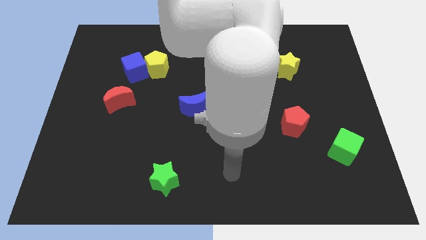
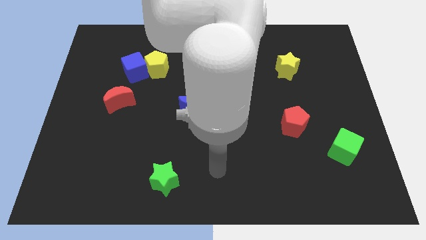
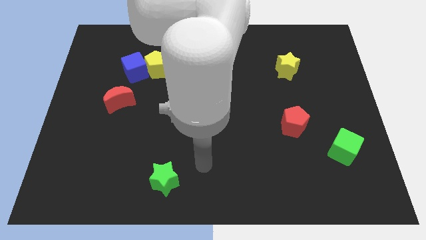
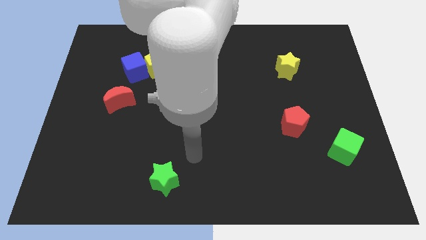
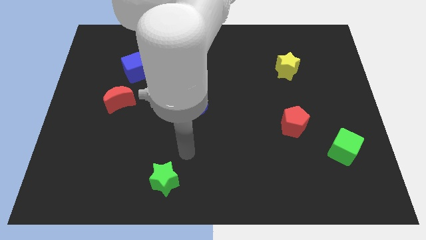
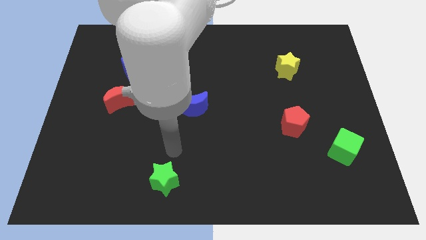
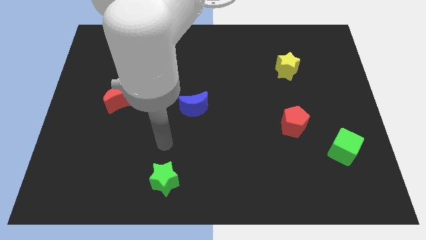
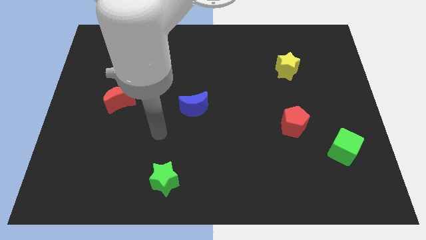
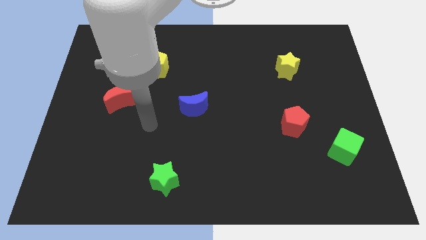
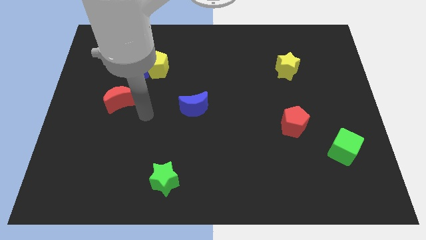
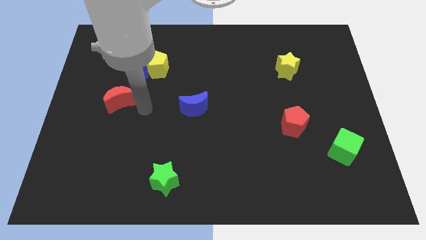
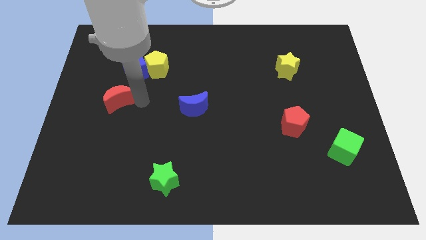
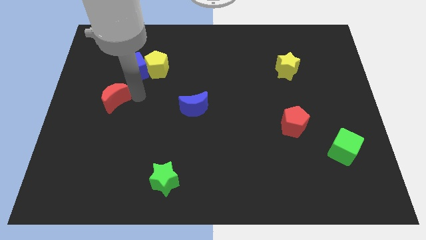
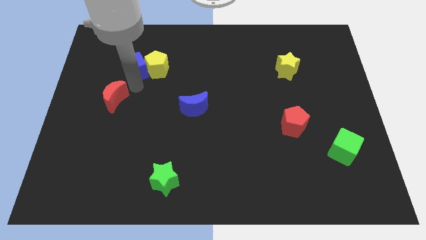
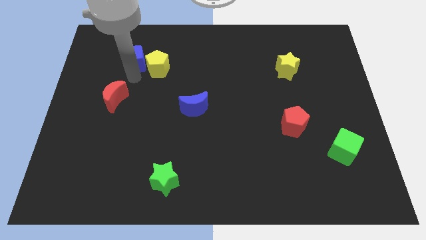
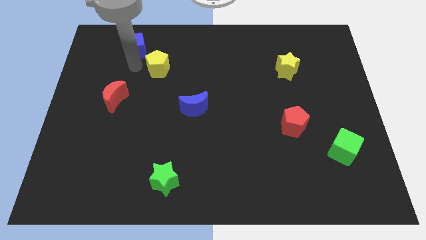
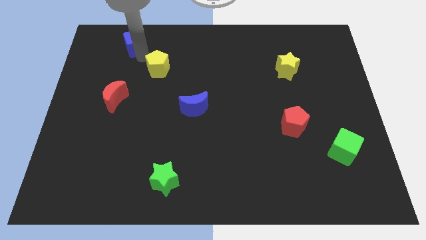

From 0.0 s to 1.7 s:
move the yellow pentagon away from the blue cube

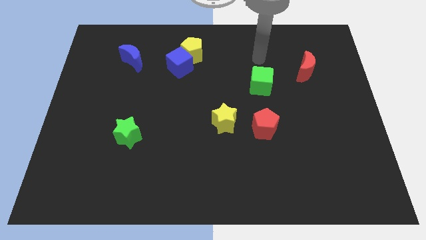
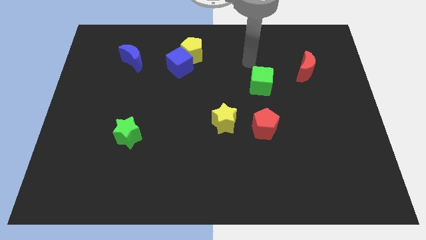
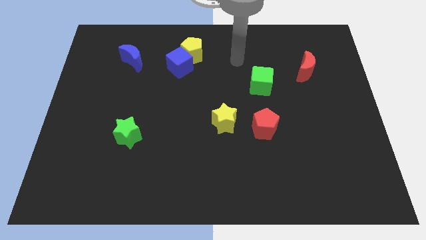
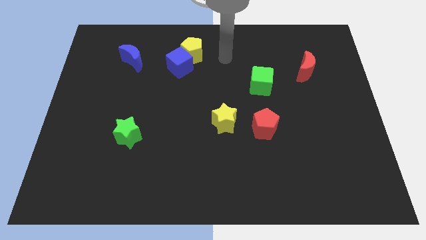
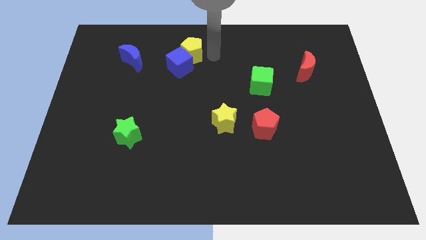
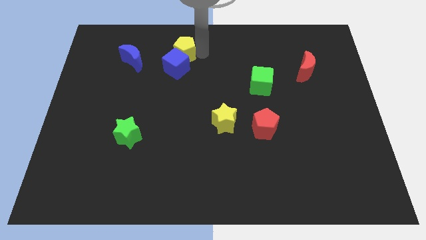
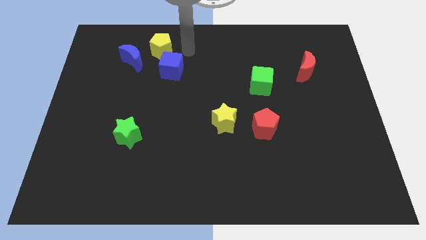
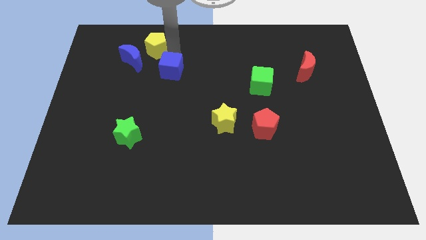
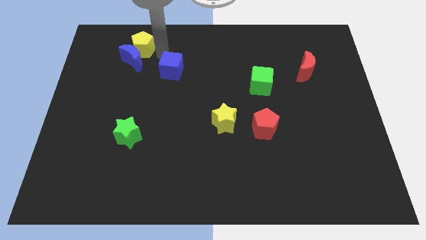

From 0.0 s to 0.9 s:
move the blue cube away from the yellow pentagon

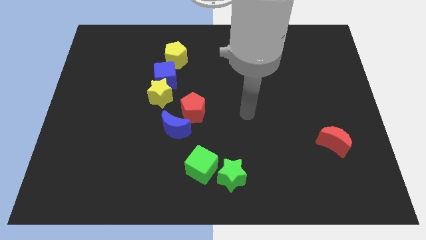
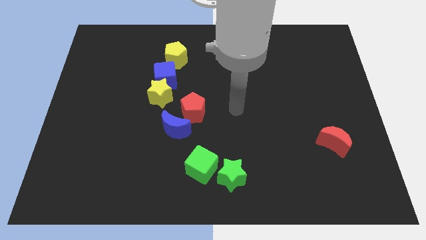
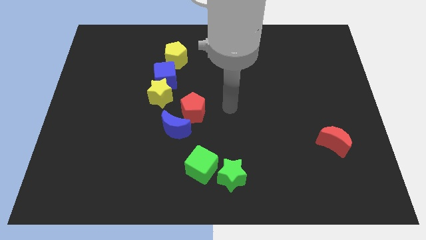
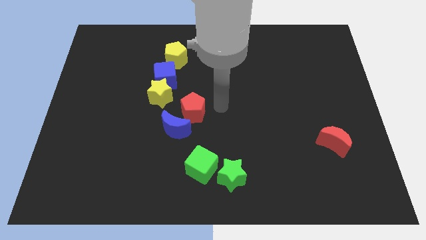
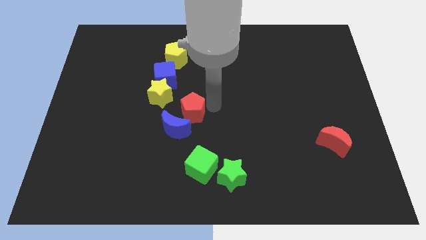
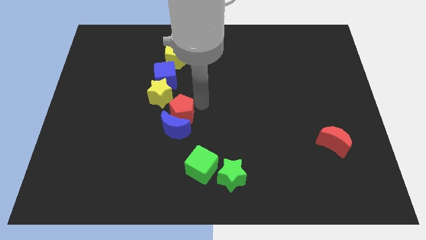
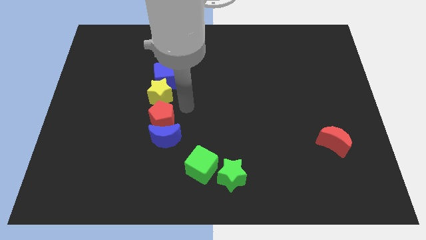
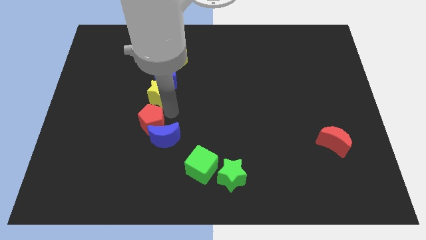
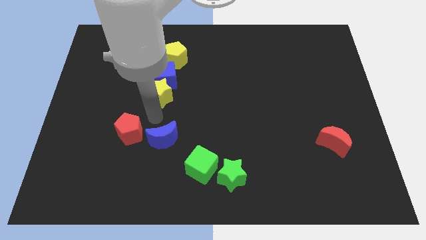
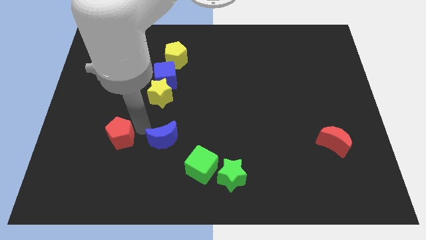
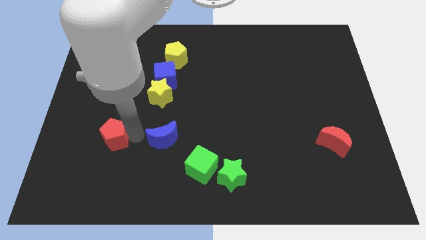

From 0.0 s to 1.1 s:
move the blue moon away from the red pentagon

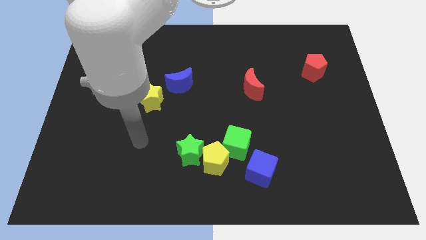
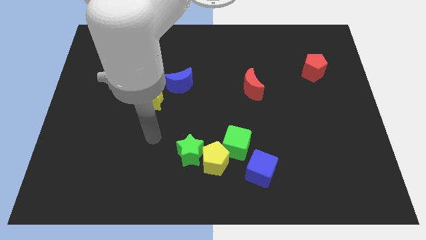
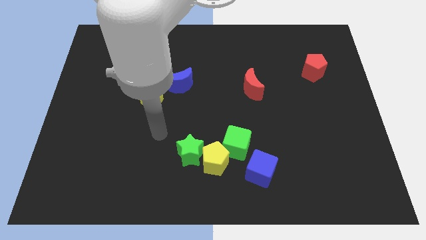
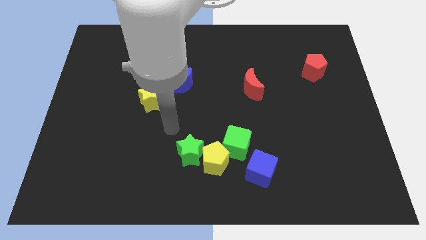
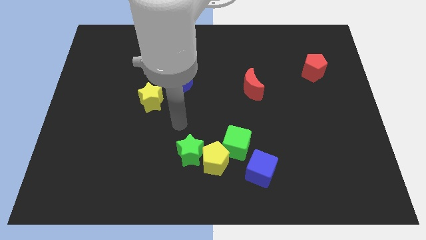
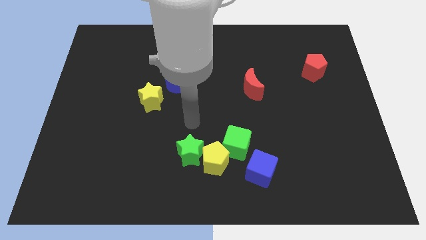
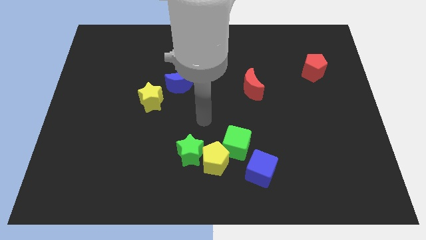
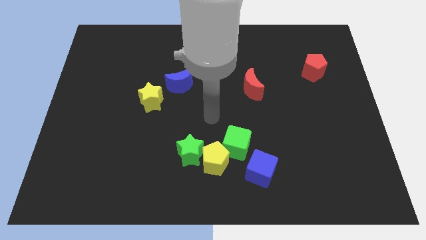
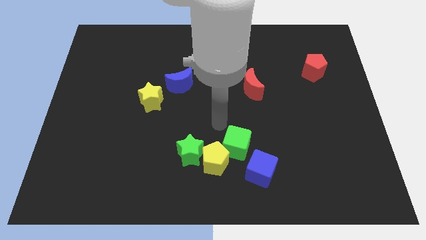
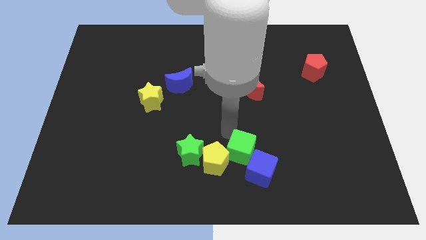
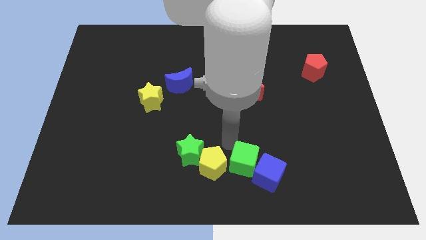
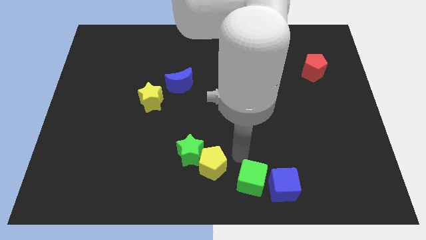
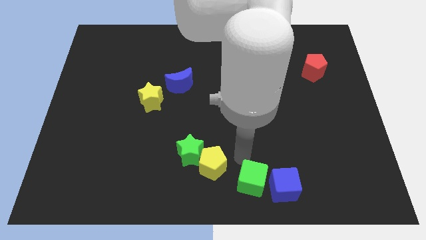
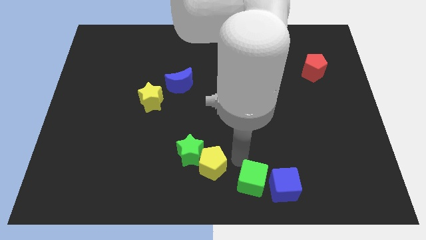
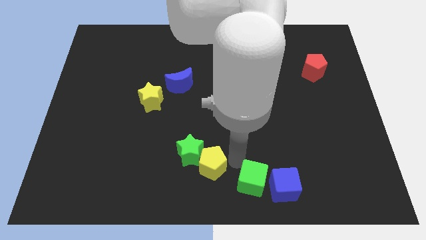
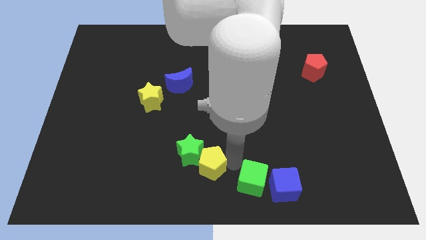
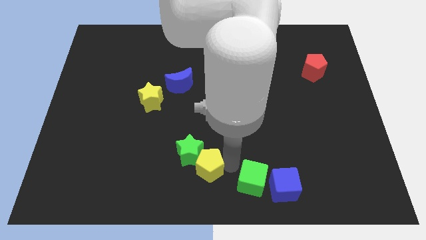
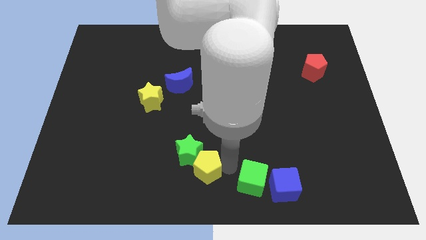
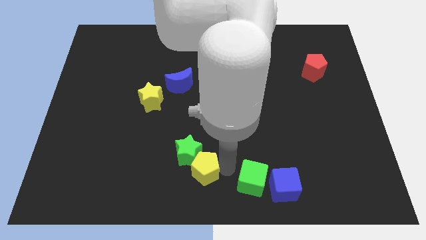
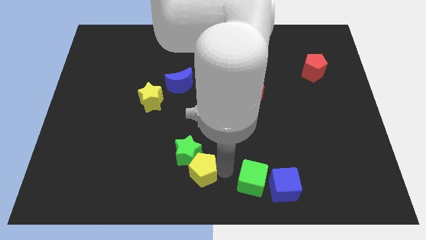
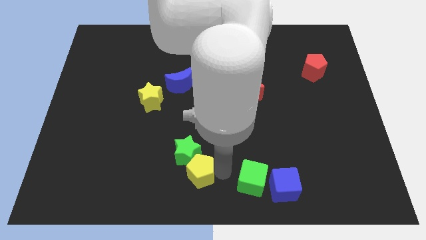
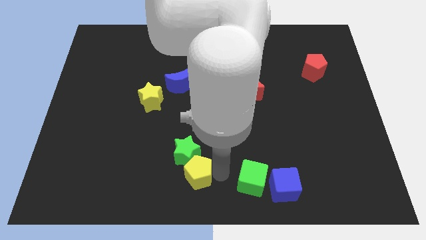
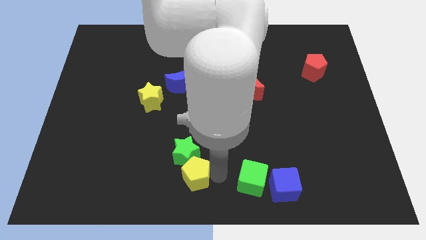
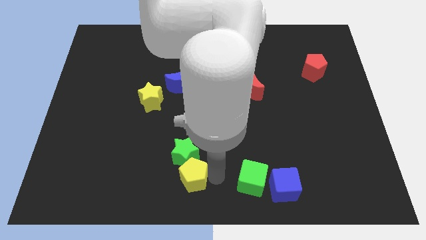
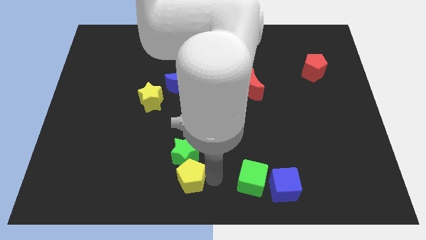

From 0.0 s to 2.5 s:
separate the yellow pentagon from the green star, green cube, and blue cube

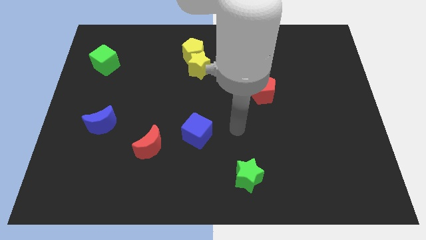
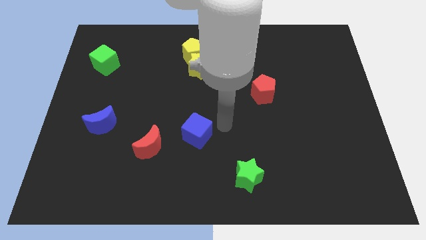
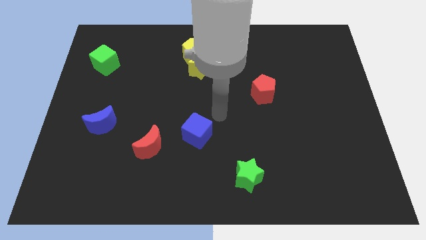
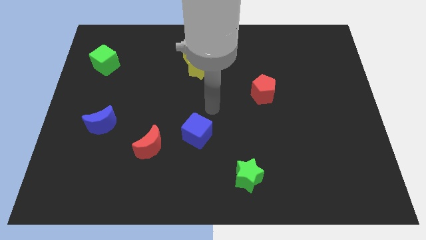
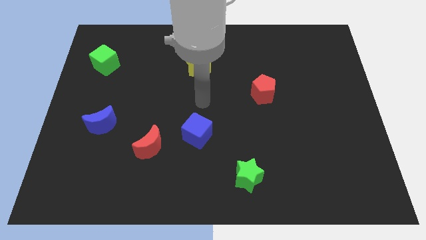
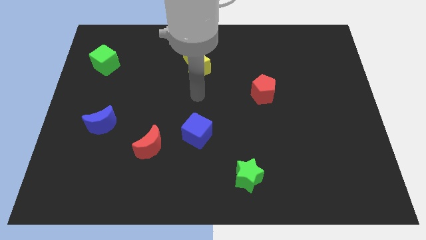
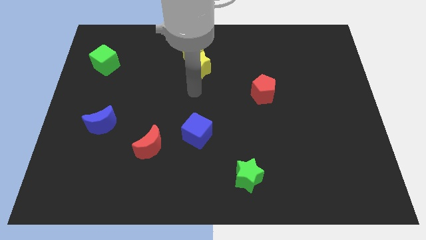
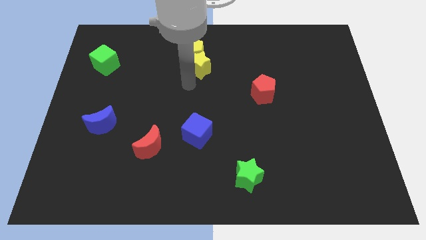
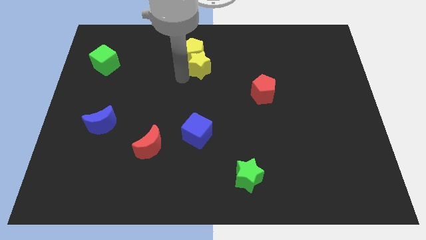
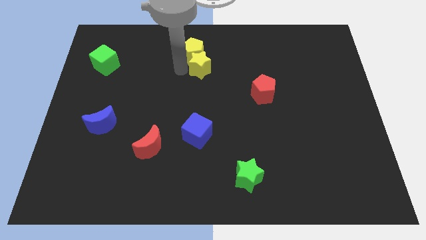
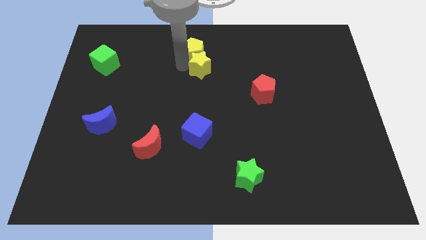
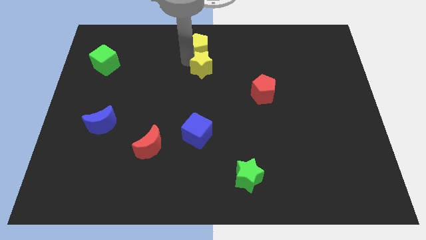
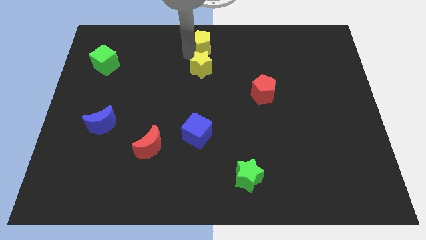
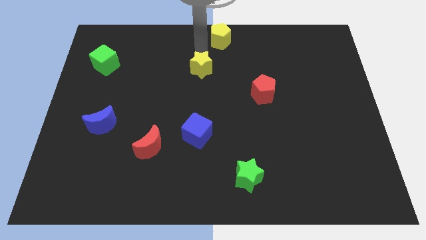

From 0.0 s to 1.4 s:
separate the yellow star from the yellow pentagon

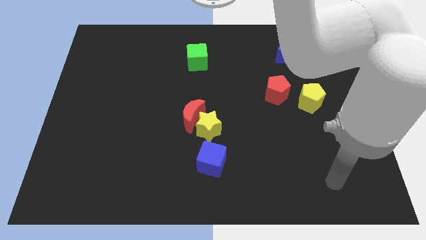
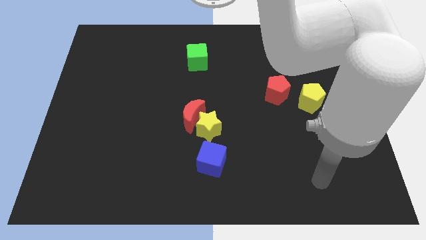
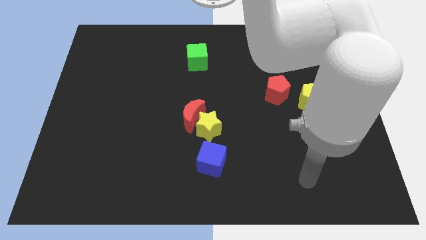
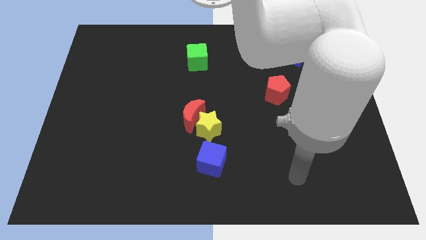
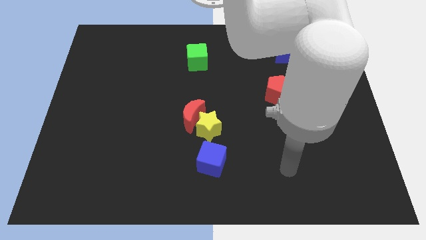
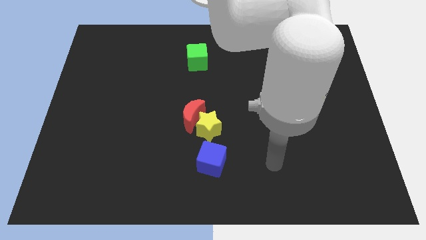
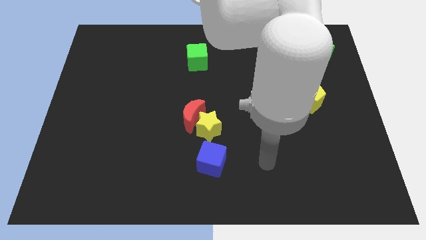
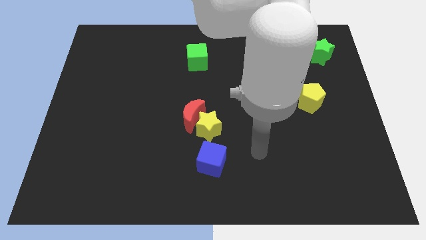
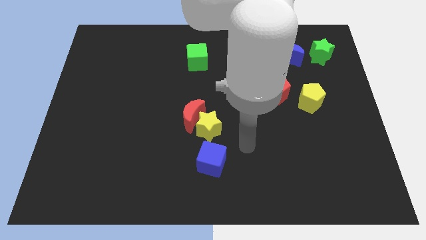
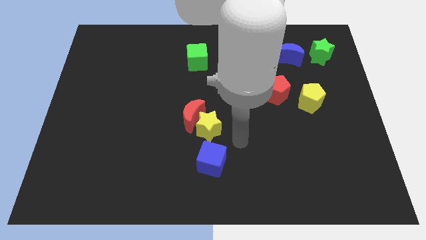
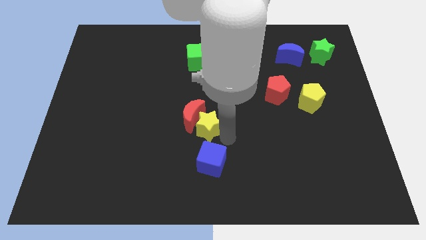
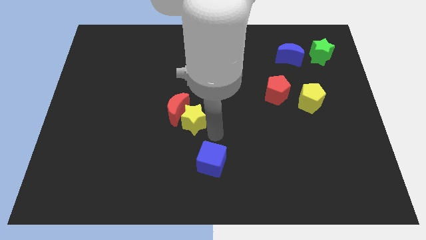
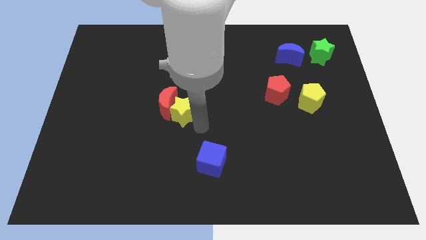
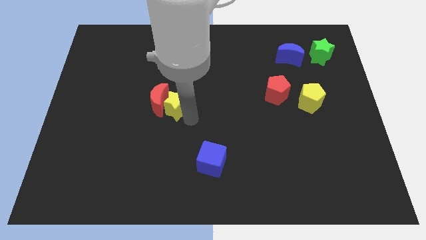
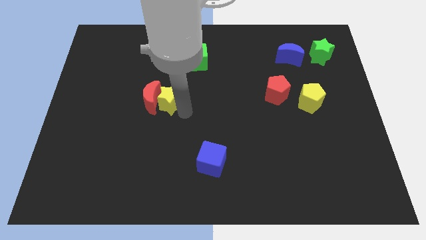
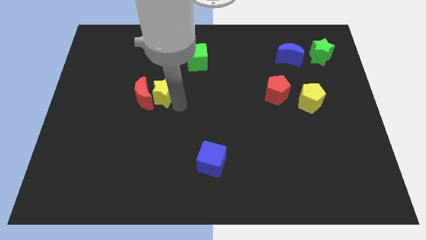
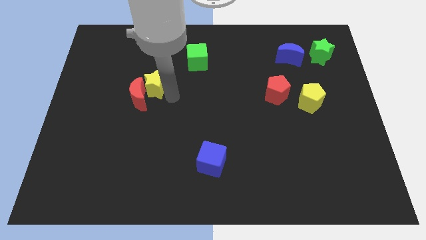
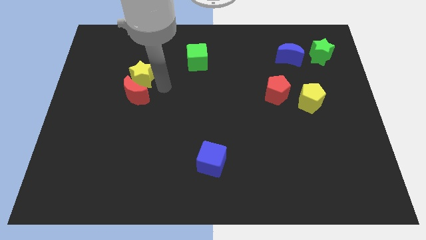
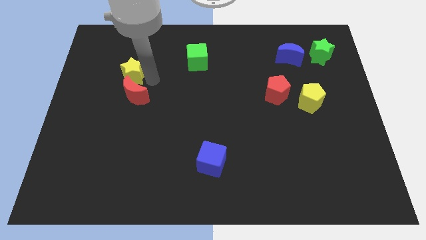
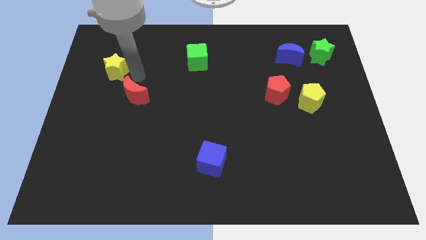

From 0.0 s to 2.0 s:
move the red moon away from the yellow star
